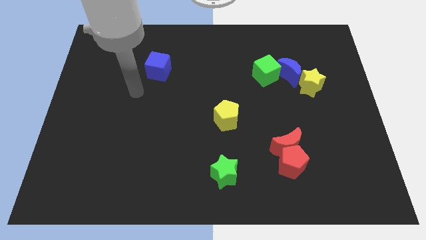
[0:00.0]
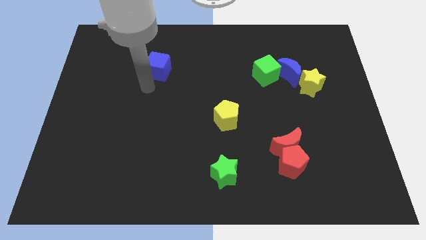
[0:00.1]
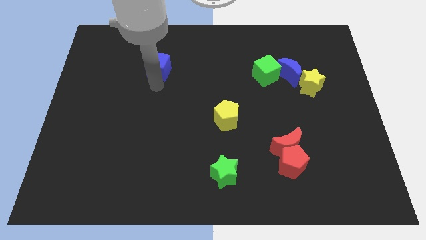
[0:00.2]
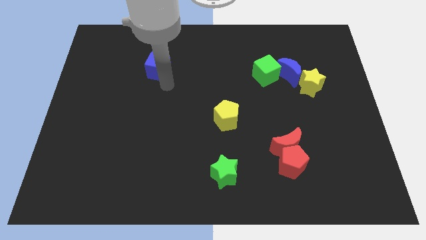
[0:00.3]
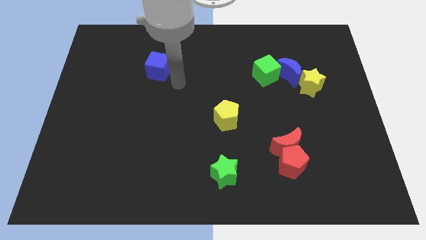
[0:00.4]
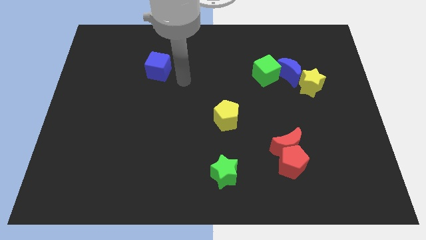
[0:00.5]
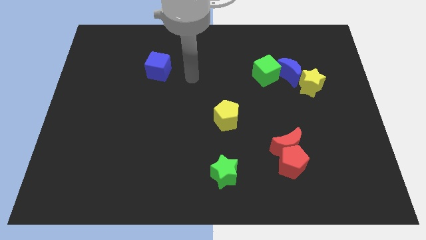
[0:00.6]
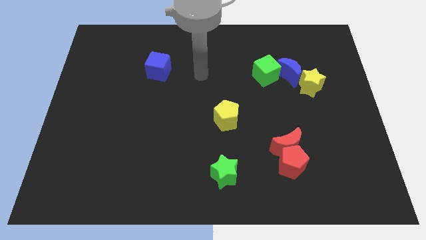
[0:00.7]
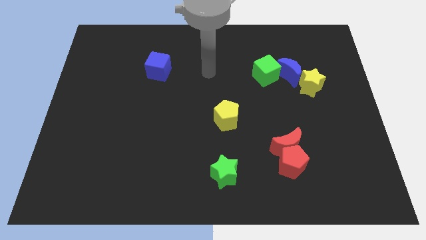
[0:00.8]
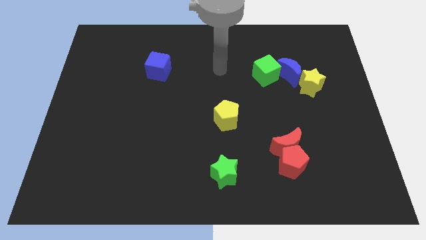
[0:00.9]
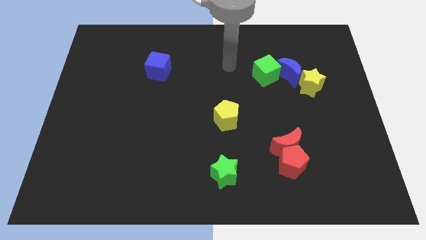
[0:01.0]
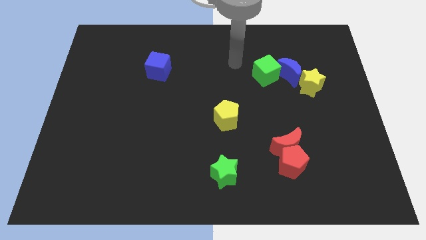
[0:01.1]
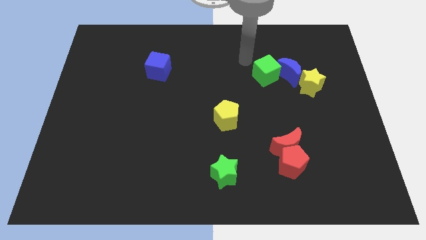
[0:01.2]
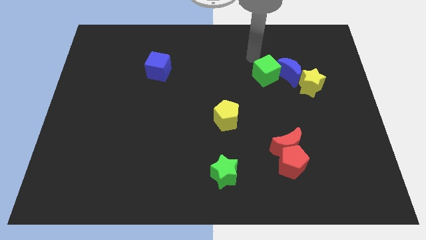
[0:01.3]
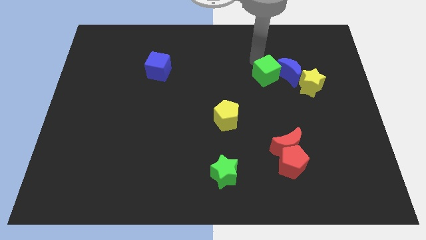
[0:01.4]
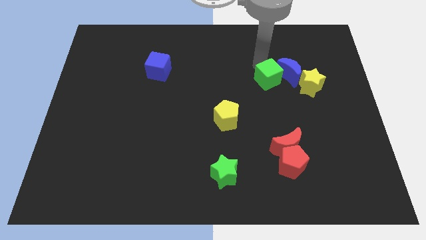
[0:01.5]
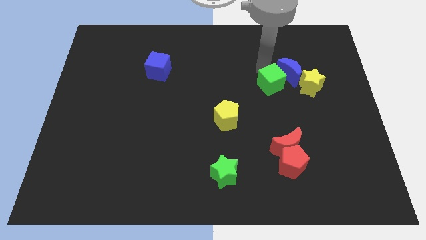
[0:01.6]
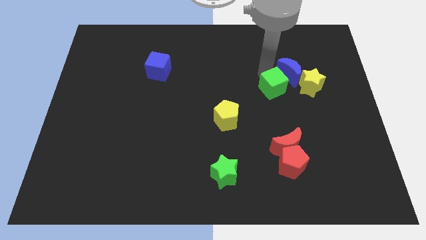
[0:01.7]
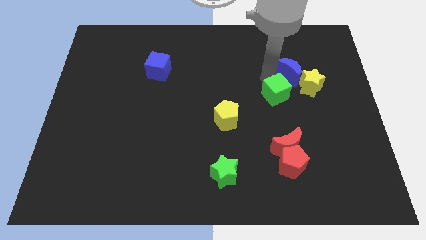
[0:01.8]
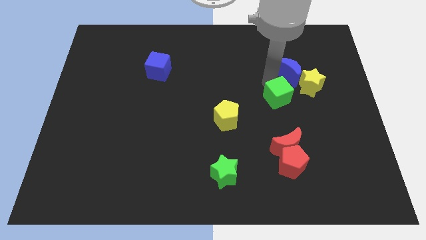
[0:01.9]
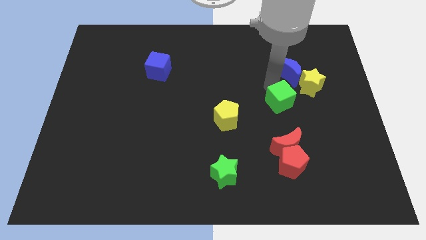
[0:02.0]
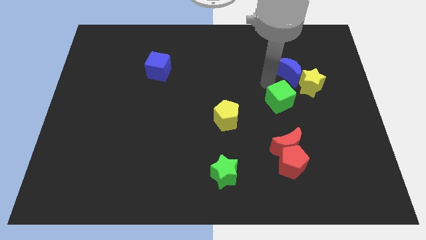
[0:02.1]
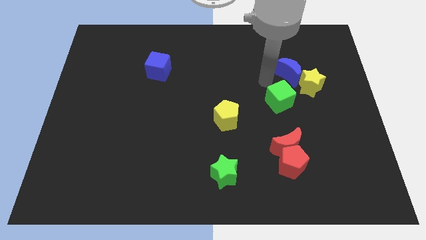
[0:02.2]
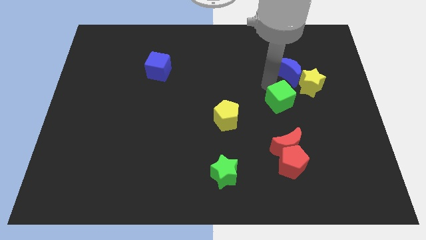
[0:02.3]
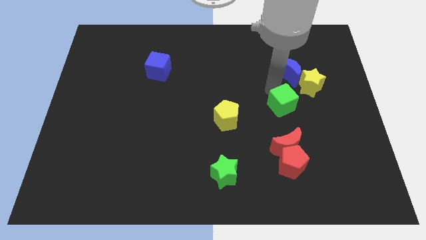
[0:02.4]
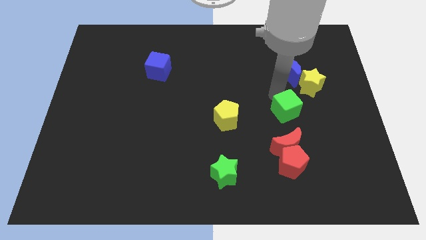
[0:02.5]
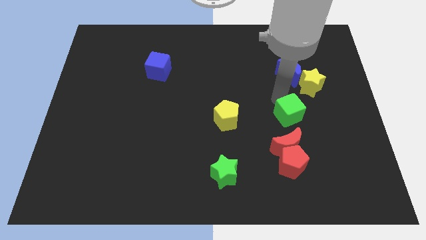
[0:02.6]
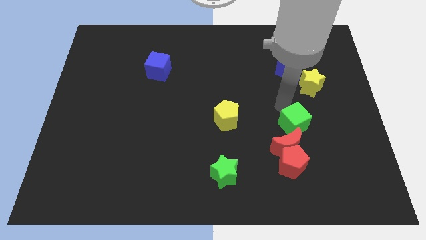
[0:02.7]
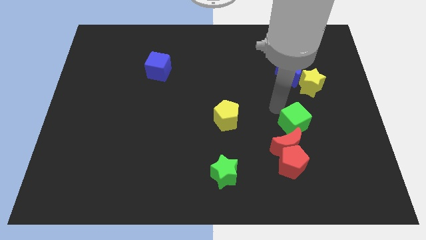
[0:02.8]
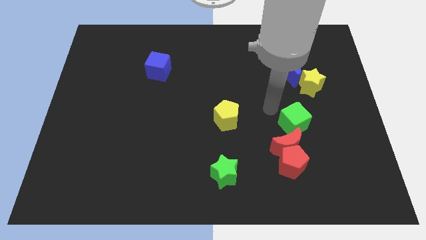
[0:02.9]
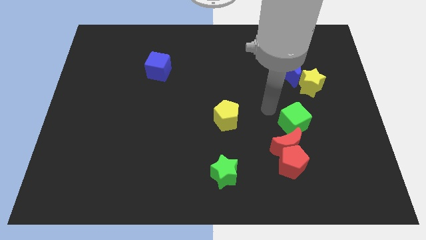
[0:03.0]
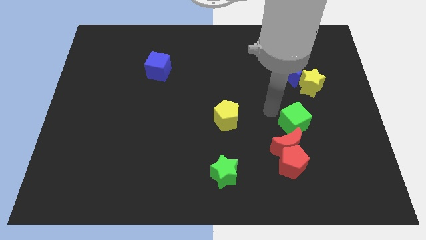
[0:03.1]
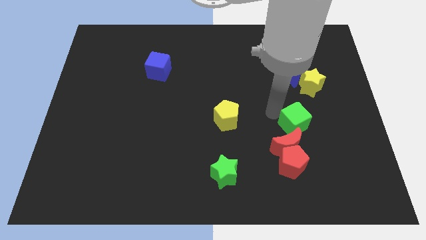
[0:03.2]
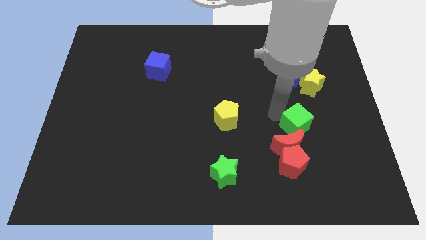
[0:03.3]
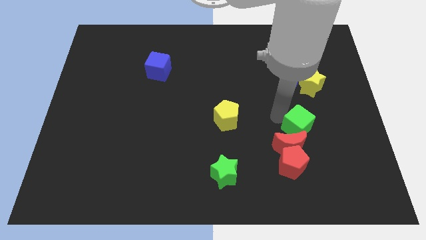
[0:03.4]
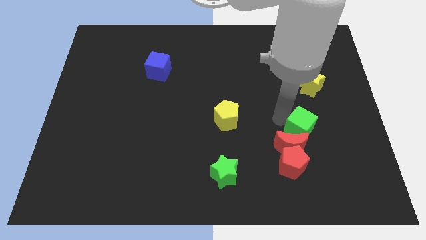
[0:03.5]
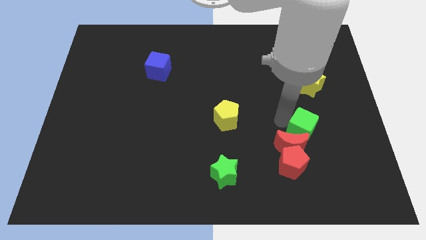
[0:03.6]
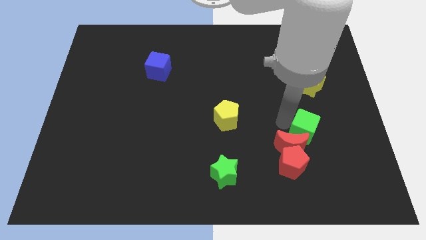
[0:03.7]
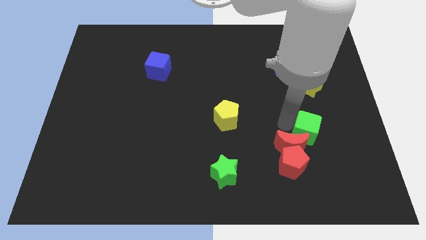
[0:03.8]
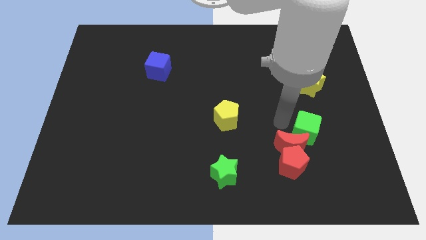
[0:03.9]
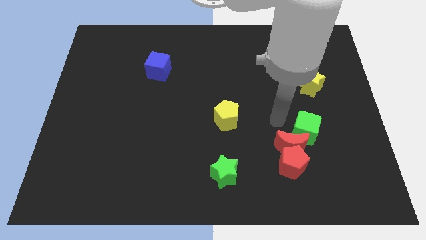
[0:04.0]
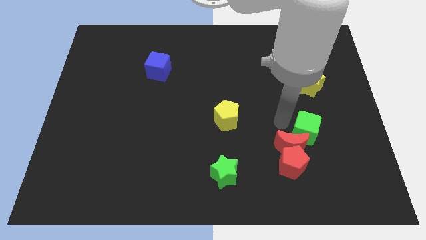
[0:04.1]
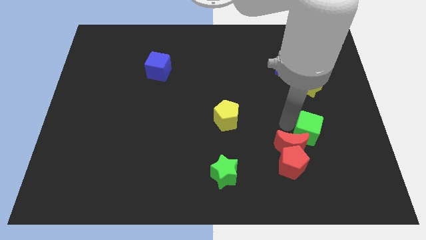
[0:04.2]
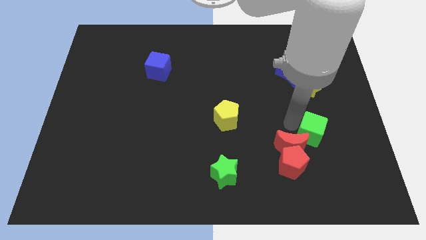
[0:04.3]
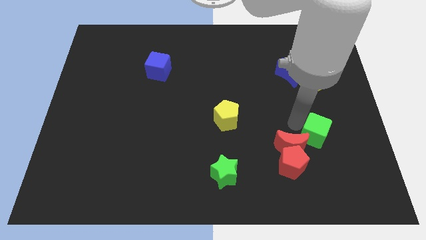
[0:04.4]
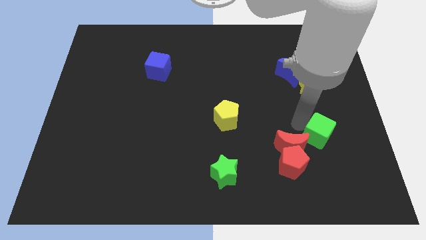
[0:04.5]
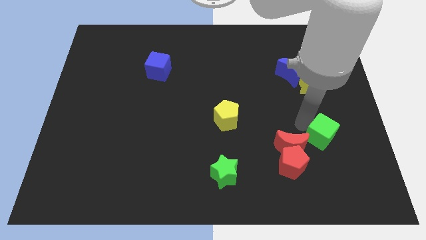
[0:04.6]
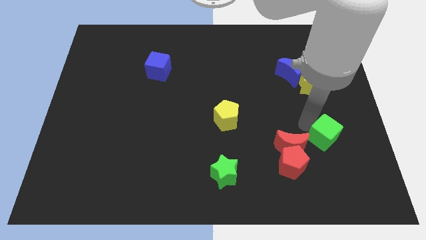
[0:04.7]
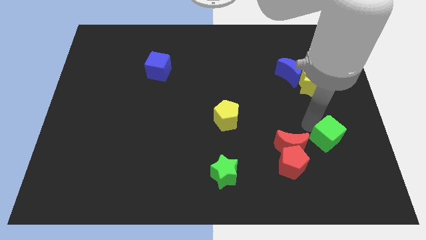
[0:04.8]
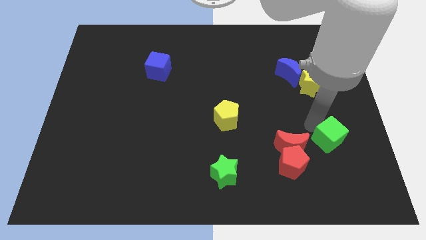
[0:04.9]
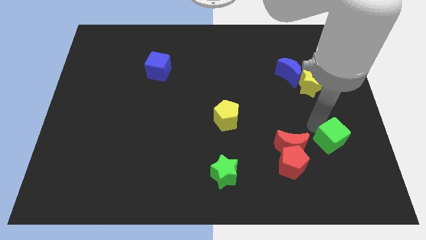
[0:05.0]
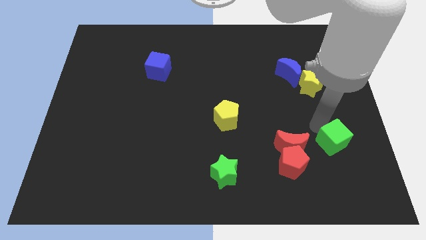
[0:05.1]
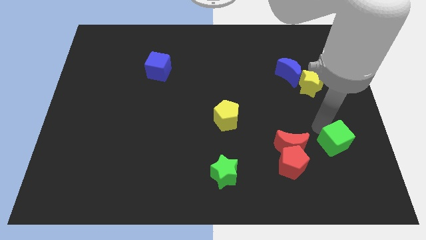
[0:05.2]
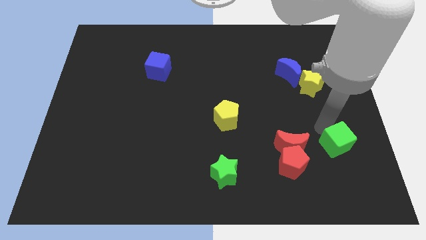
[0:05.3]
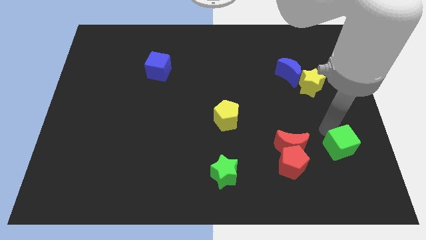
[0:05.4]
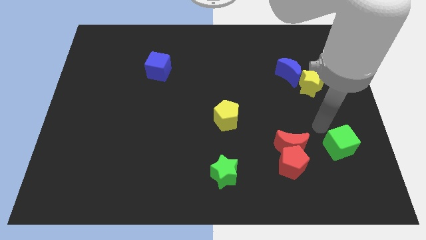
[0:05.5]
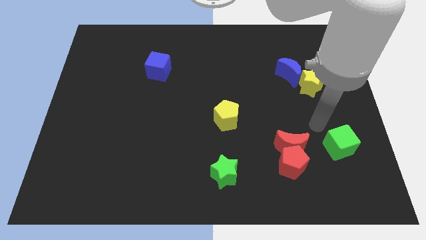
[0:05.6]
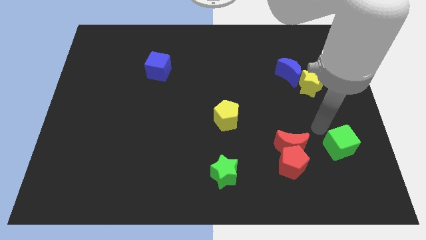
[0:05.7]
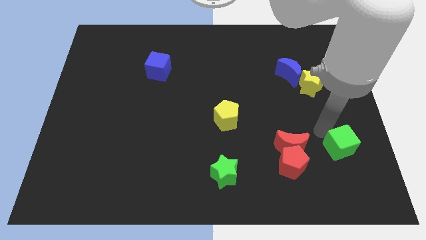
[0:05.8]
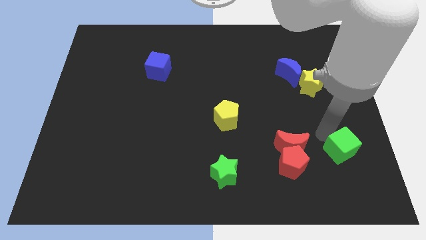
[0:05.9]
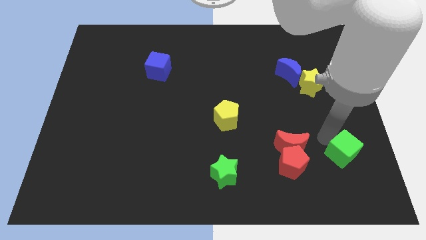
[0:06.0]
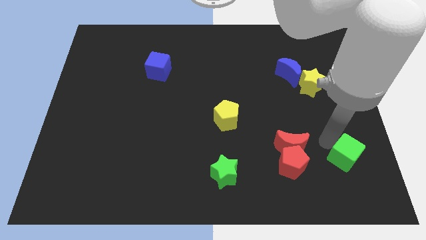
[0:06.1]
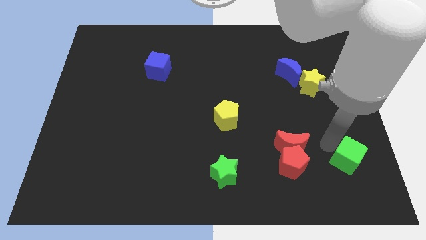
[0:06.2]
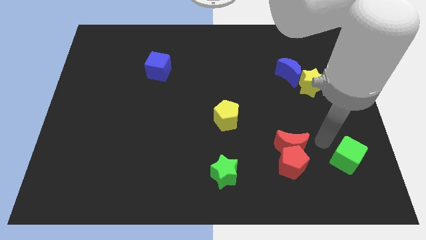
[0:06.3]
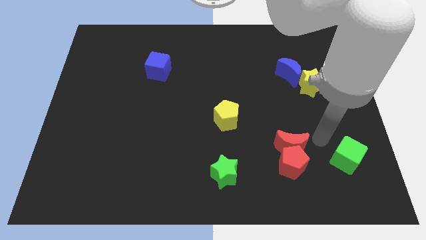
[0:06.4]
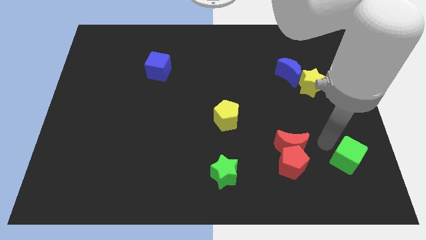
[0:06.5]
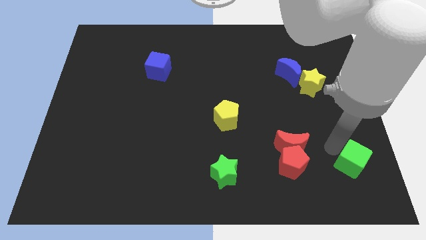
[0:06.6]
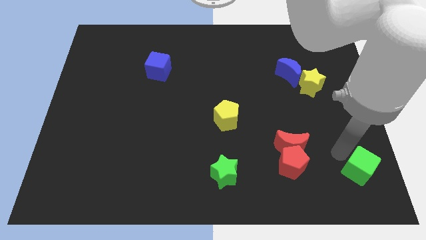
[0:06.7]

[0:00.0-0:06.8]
push the green cube to the bottom right
